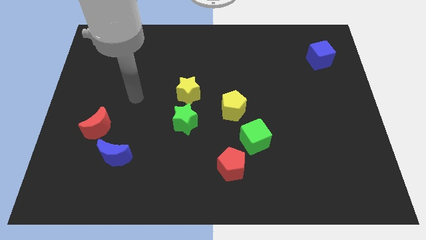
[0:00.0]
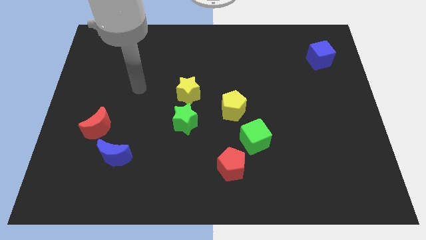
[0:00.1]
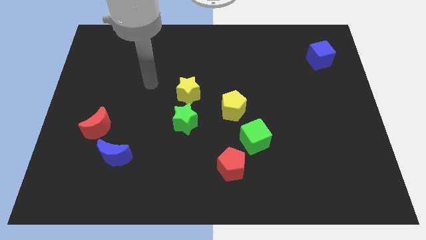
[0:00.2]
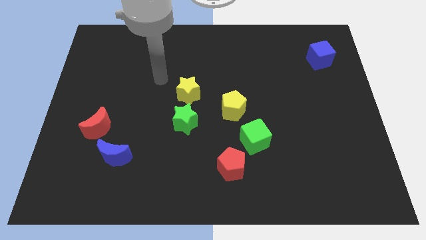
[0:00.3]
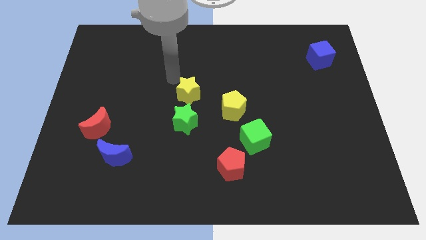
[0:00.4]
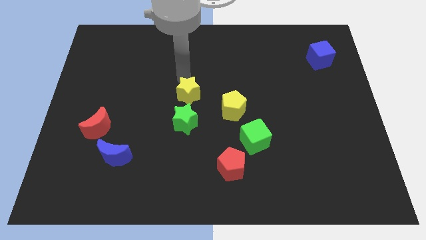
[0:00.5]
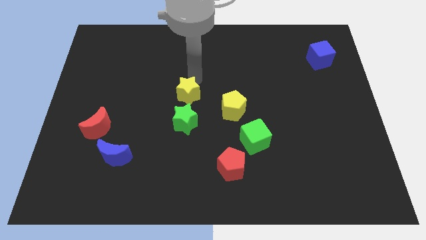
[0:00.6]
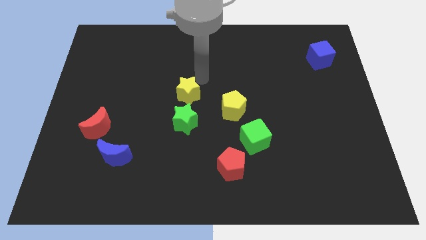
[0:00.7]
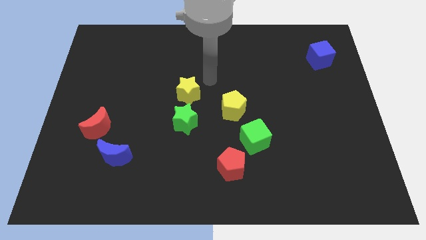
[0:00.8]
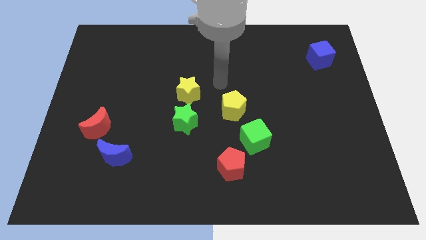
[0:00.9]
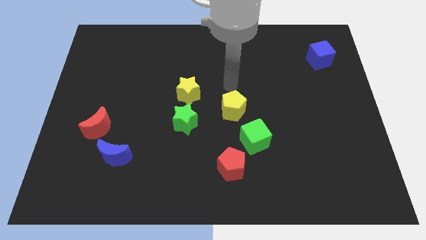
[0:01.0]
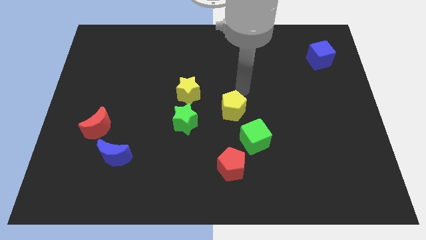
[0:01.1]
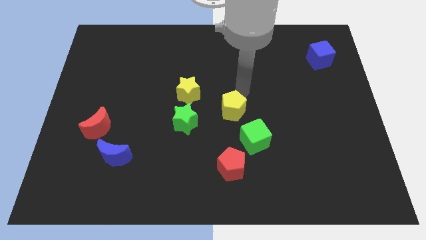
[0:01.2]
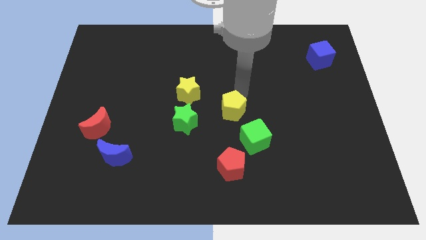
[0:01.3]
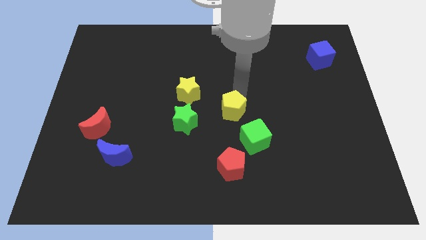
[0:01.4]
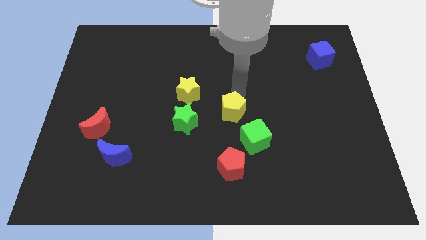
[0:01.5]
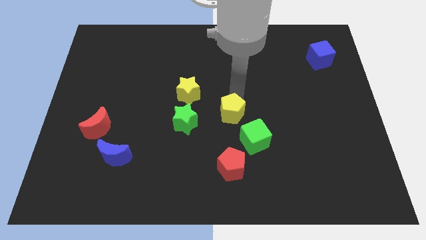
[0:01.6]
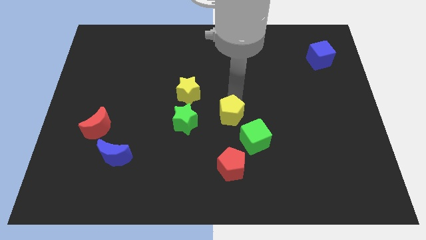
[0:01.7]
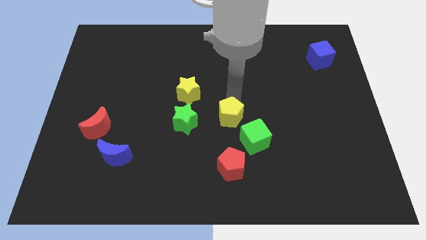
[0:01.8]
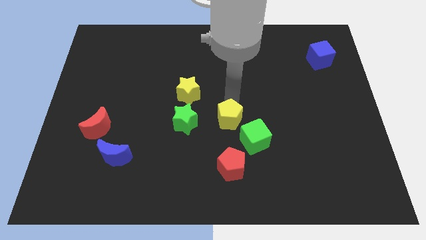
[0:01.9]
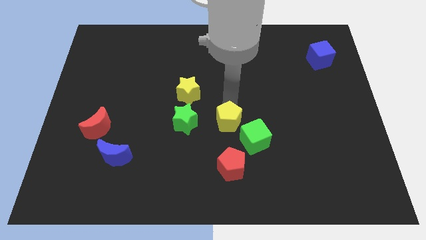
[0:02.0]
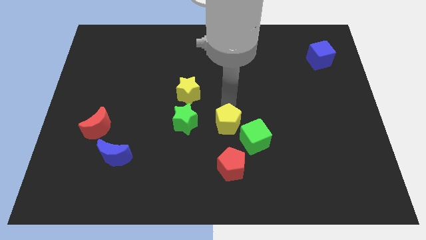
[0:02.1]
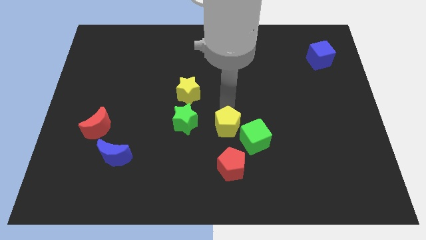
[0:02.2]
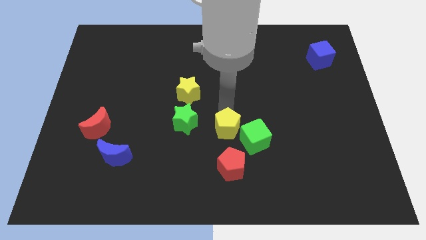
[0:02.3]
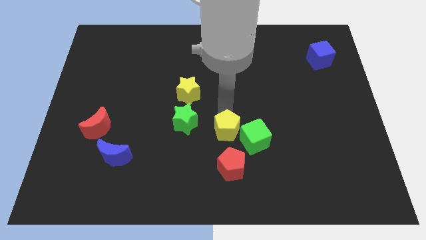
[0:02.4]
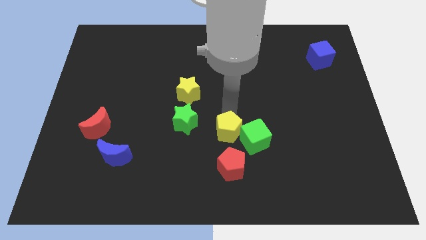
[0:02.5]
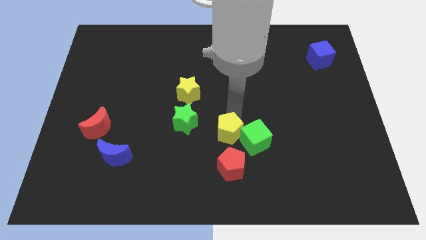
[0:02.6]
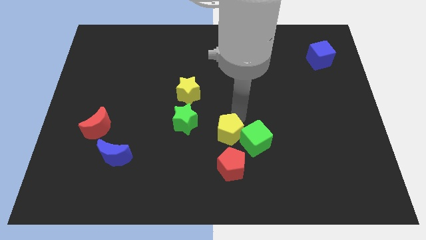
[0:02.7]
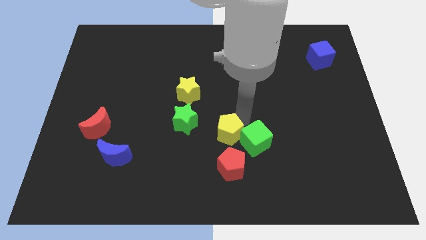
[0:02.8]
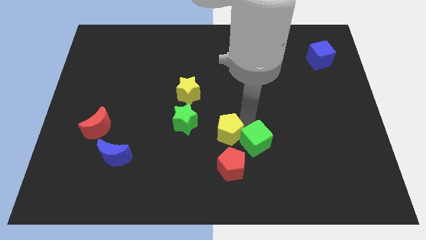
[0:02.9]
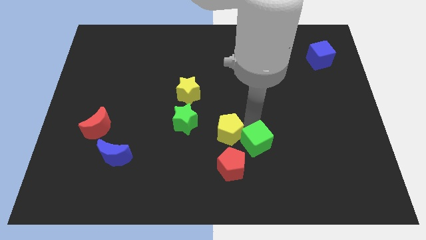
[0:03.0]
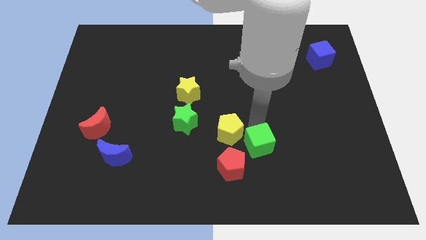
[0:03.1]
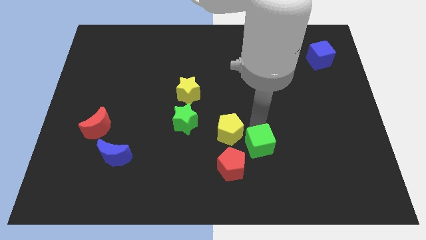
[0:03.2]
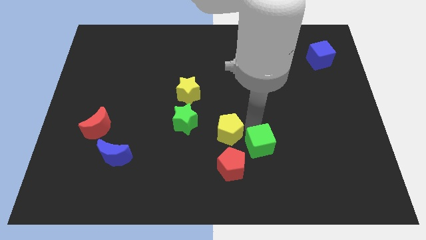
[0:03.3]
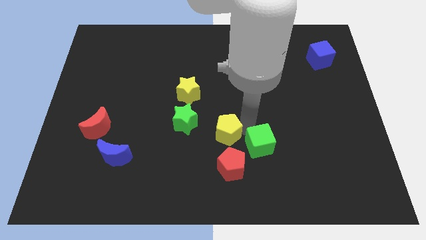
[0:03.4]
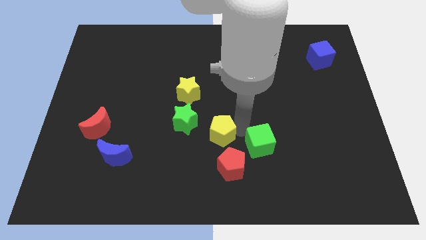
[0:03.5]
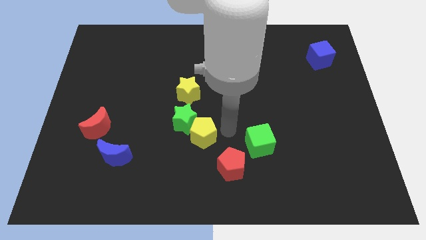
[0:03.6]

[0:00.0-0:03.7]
slide the yellow pentagon downwards and left diagonally a bit

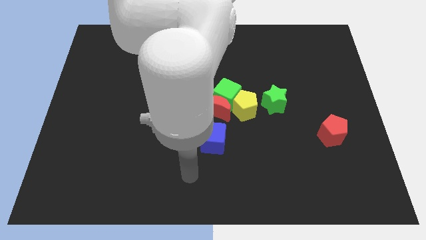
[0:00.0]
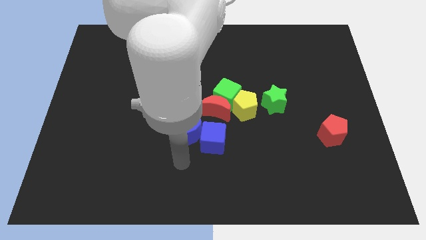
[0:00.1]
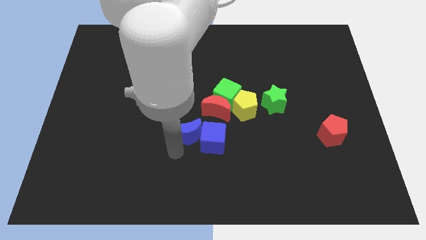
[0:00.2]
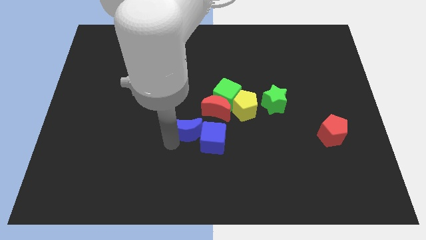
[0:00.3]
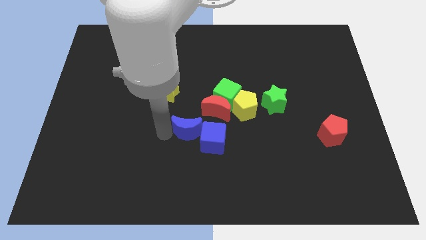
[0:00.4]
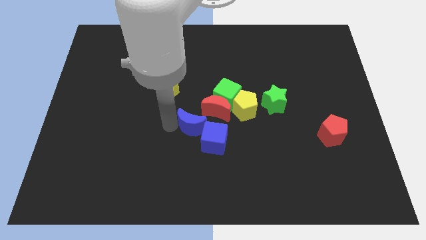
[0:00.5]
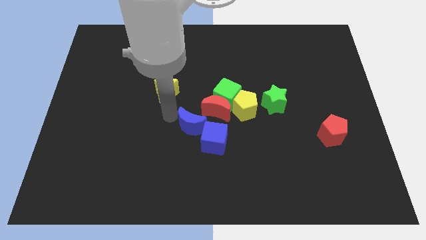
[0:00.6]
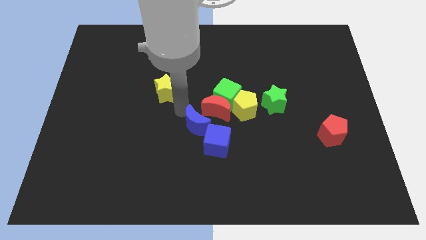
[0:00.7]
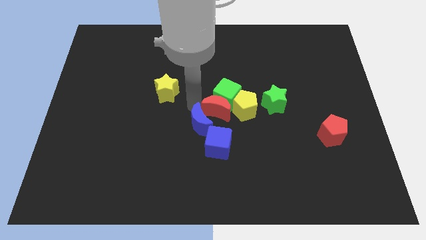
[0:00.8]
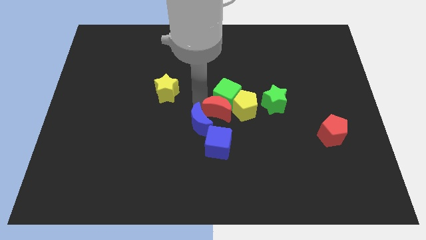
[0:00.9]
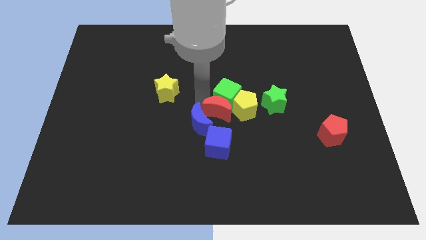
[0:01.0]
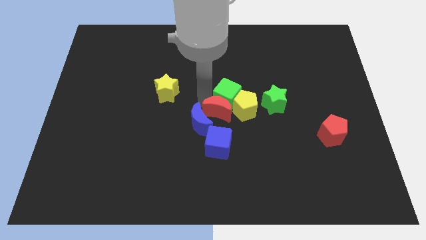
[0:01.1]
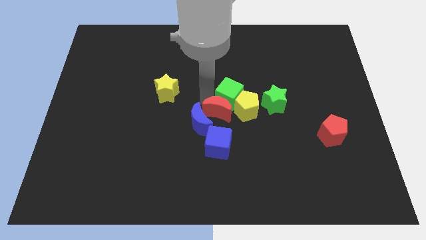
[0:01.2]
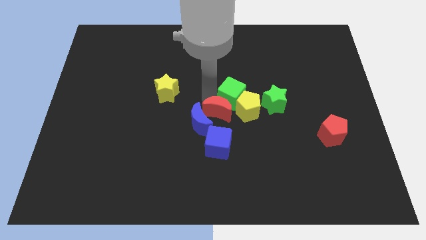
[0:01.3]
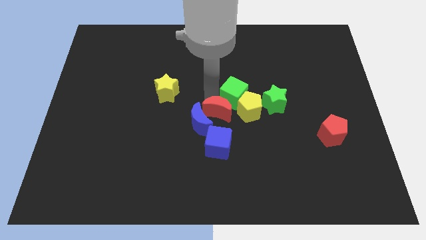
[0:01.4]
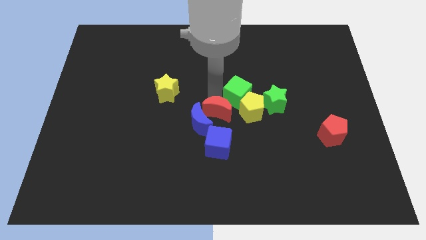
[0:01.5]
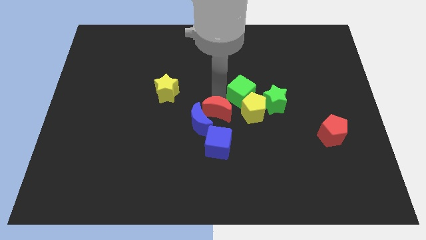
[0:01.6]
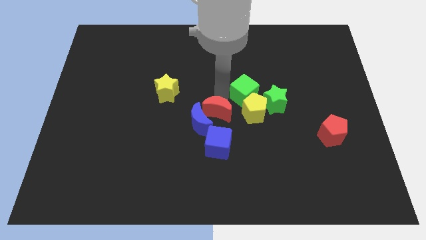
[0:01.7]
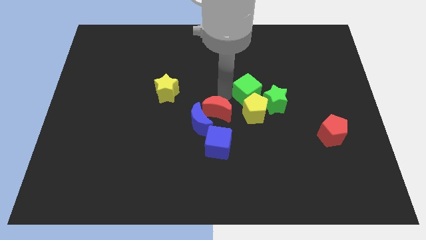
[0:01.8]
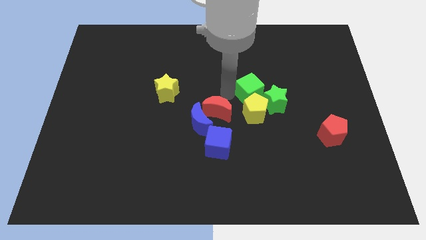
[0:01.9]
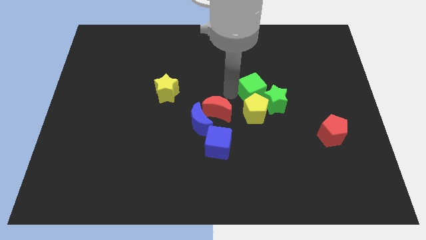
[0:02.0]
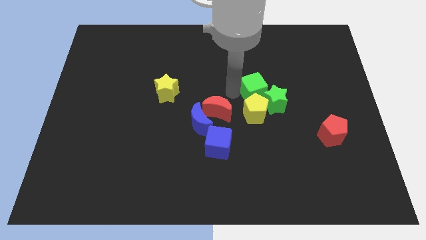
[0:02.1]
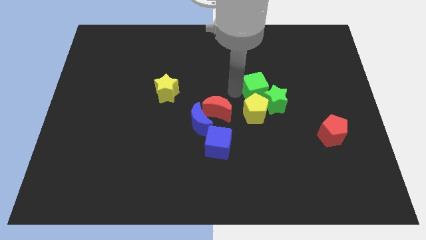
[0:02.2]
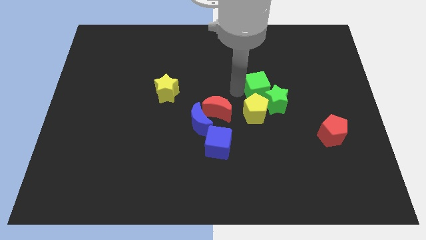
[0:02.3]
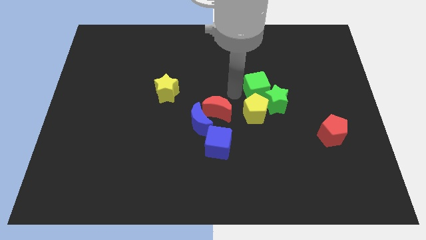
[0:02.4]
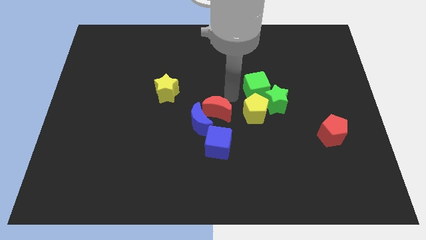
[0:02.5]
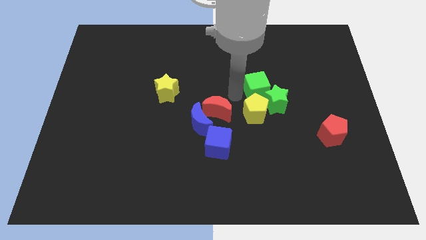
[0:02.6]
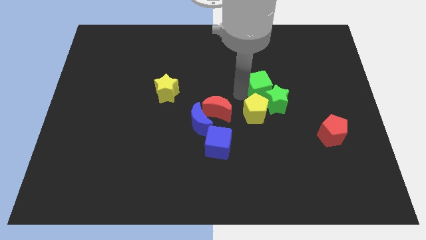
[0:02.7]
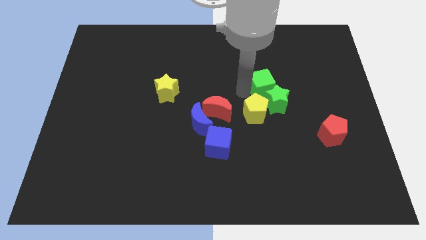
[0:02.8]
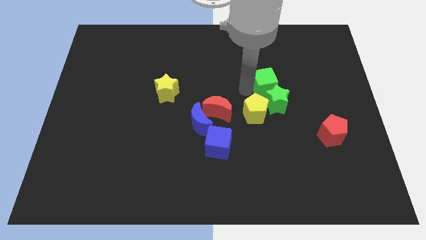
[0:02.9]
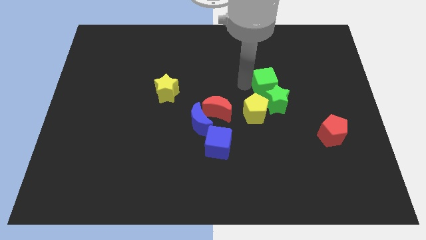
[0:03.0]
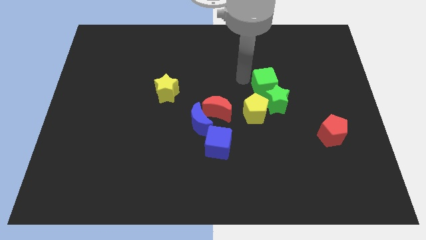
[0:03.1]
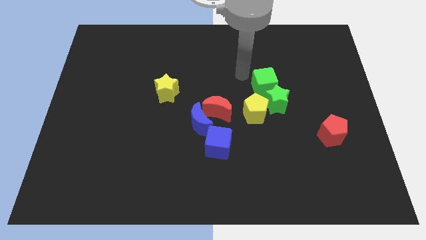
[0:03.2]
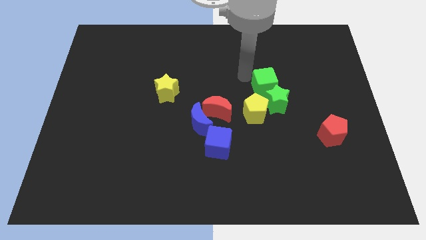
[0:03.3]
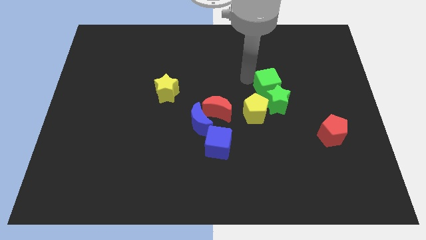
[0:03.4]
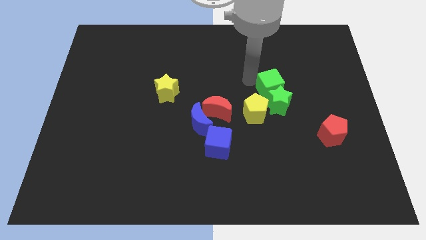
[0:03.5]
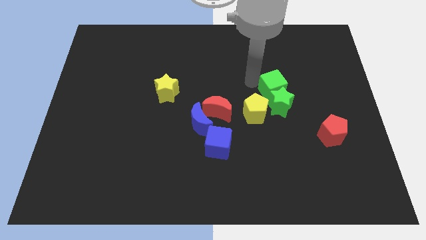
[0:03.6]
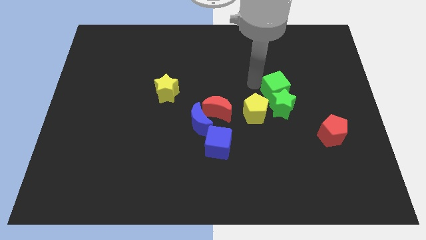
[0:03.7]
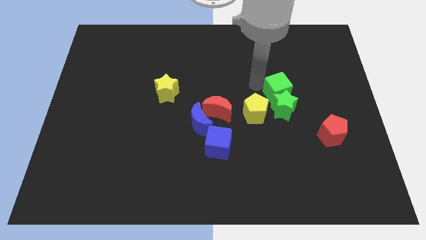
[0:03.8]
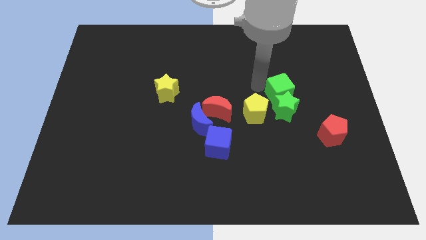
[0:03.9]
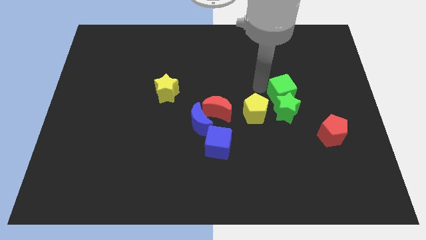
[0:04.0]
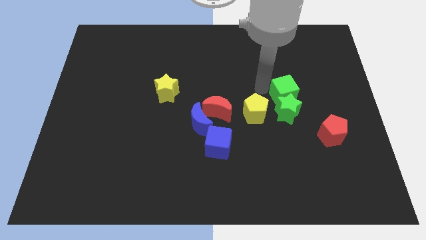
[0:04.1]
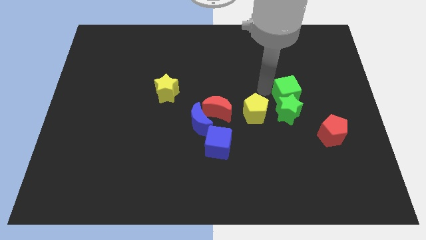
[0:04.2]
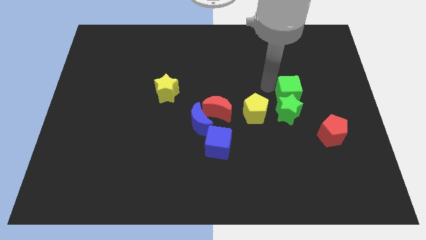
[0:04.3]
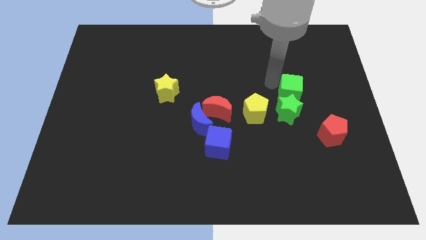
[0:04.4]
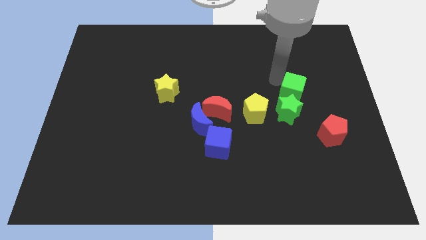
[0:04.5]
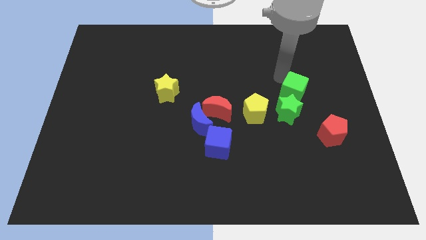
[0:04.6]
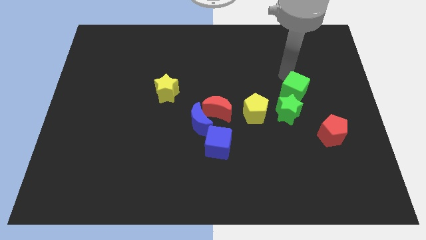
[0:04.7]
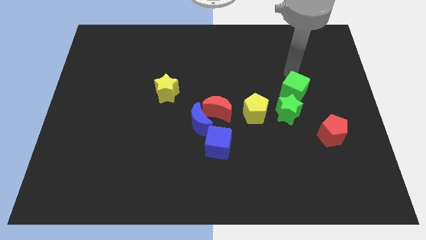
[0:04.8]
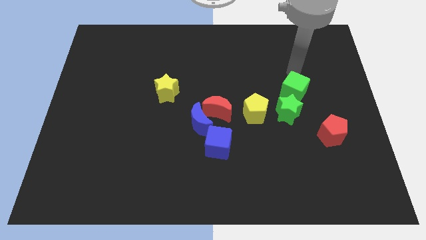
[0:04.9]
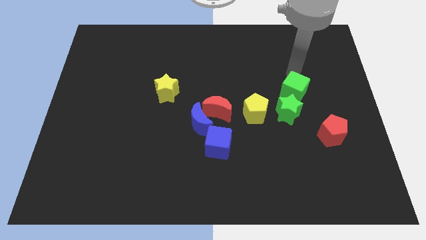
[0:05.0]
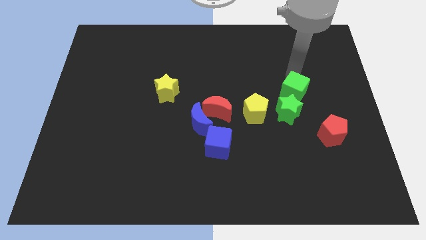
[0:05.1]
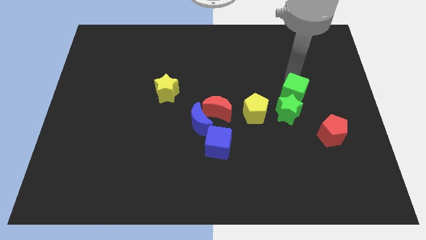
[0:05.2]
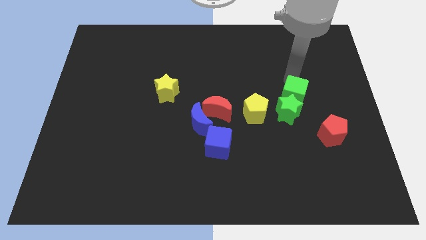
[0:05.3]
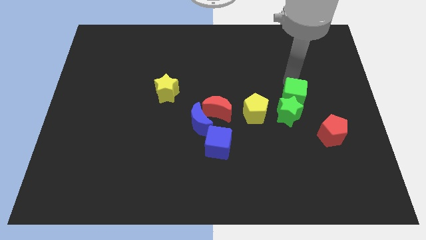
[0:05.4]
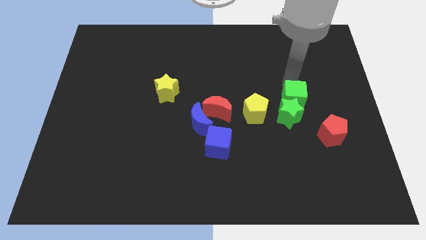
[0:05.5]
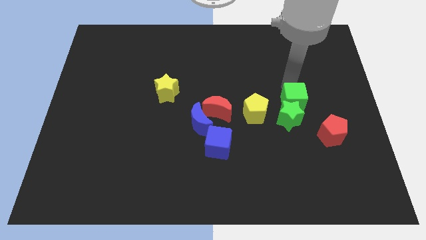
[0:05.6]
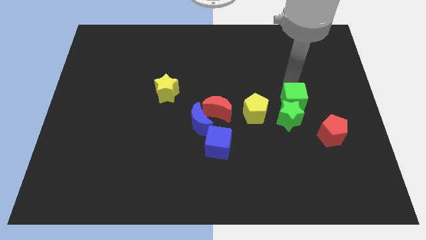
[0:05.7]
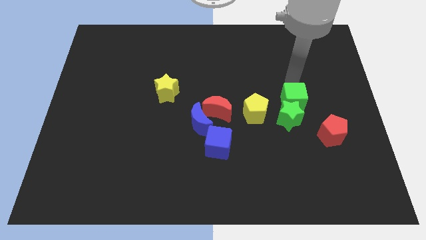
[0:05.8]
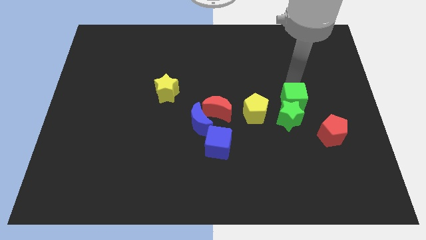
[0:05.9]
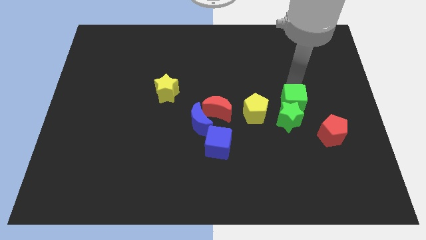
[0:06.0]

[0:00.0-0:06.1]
push the green cube somewhat down and right
